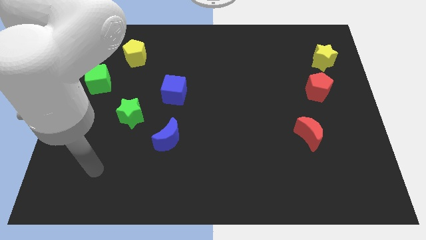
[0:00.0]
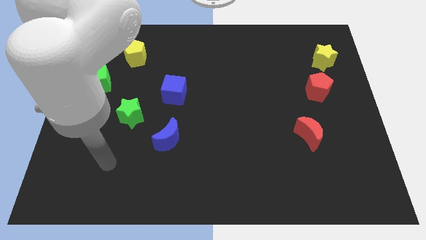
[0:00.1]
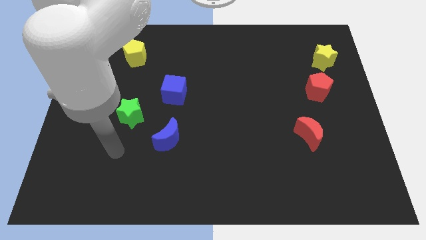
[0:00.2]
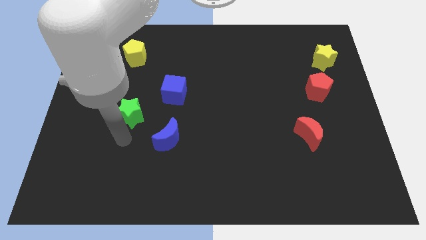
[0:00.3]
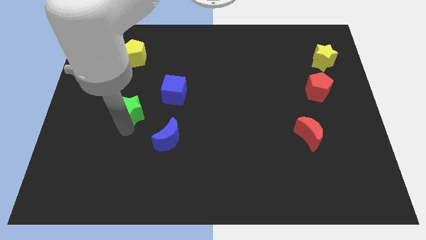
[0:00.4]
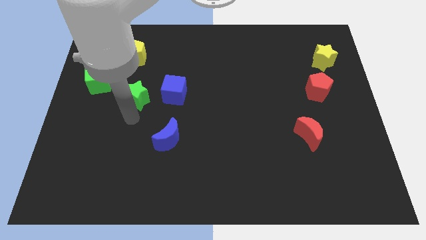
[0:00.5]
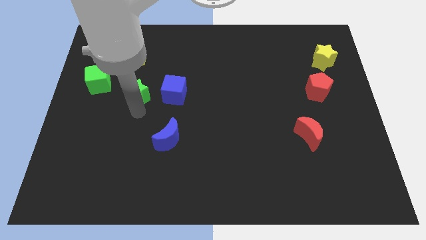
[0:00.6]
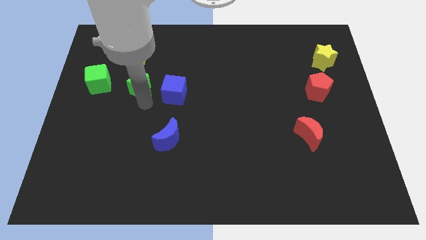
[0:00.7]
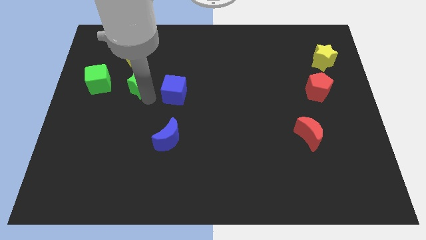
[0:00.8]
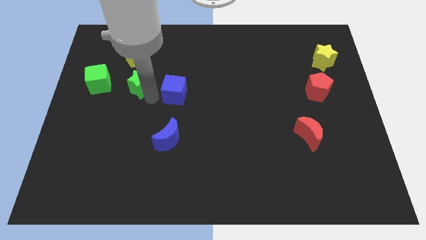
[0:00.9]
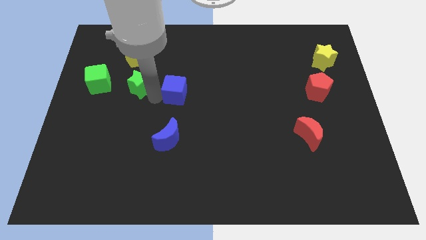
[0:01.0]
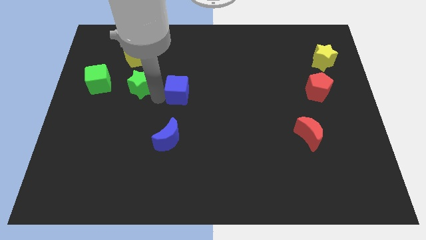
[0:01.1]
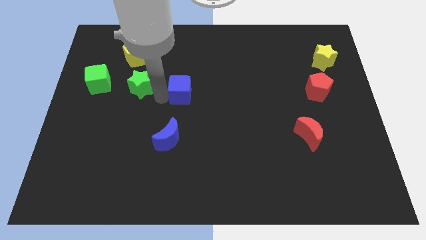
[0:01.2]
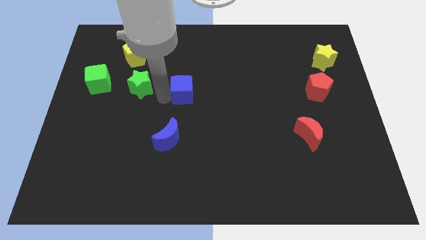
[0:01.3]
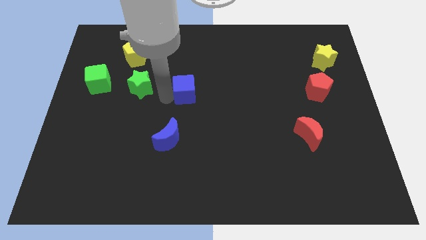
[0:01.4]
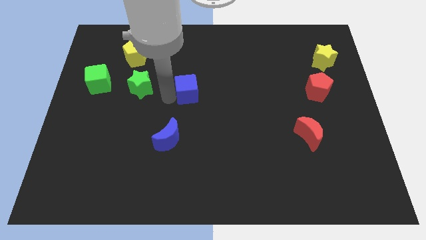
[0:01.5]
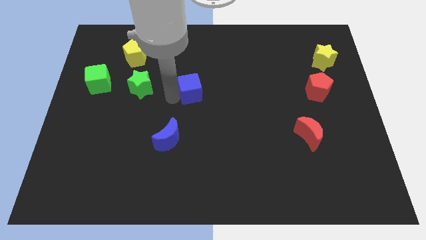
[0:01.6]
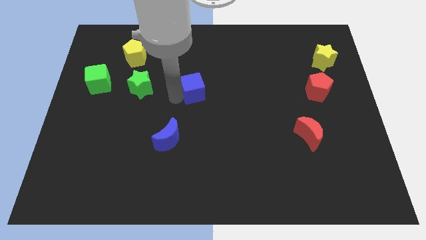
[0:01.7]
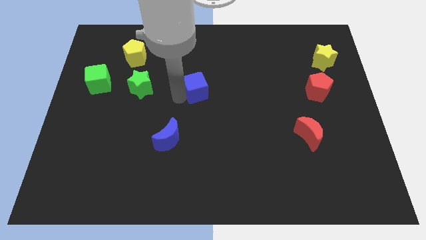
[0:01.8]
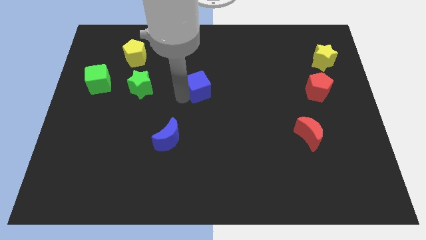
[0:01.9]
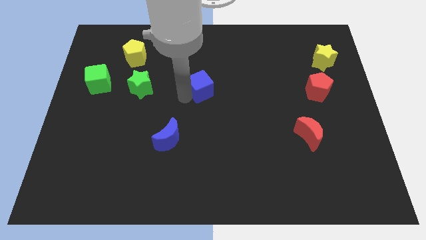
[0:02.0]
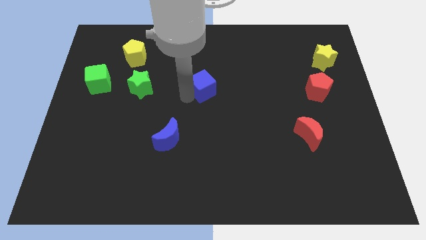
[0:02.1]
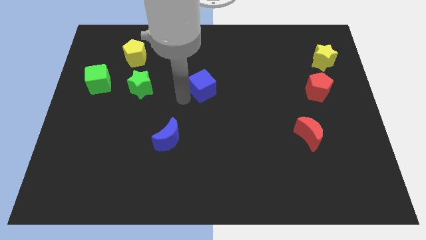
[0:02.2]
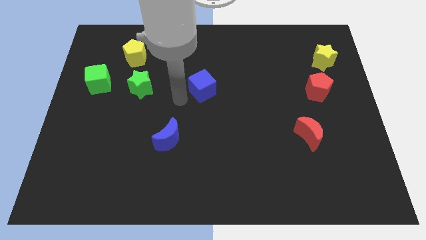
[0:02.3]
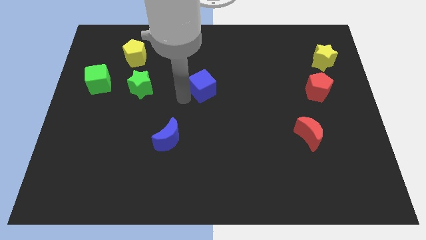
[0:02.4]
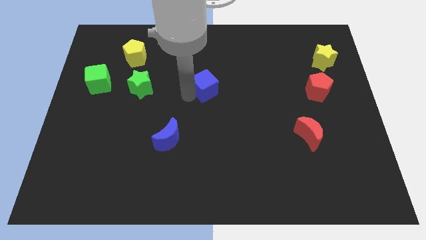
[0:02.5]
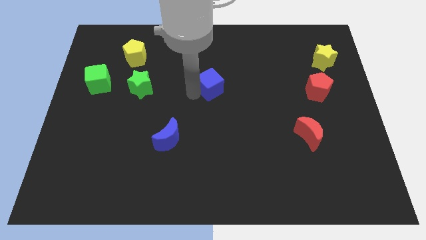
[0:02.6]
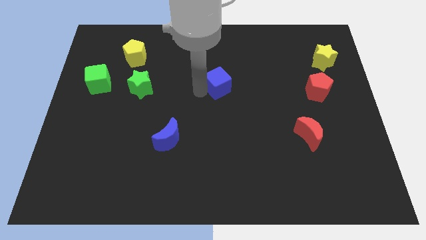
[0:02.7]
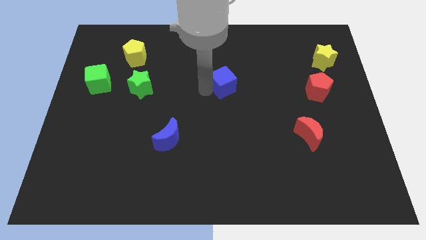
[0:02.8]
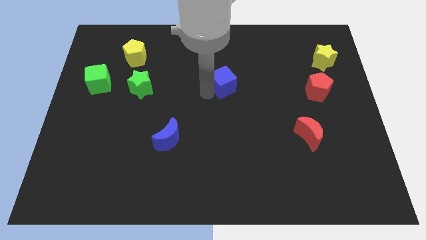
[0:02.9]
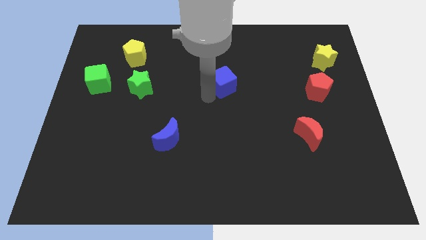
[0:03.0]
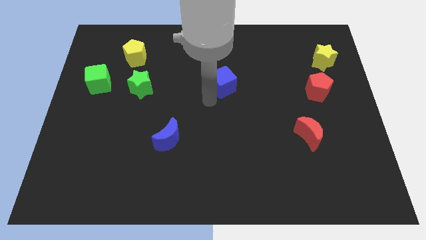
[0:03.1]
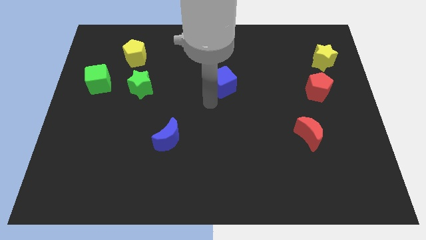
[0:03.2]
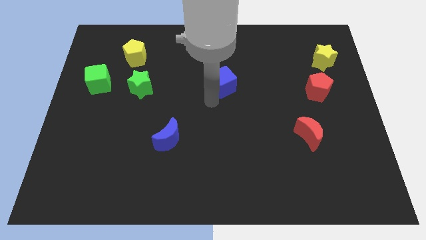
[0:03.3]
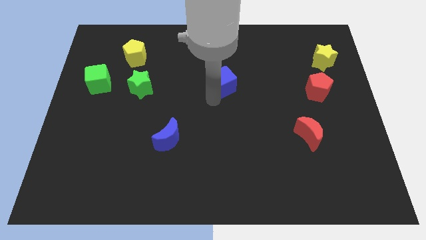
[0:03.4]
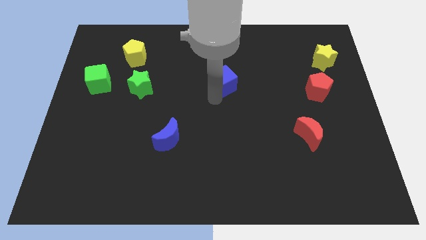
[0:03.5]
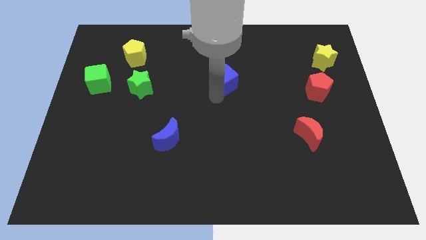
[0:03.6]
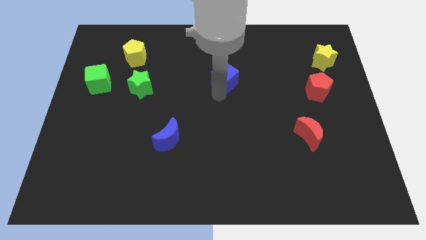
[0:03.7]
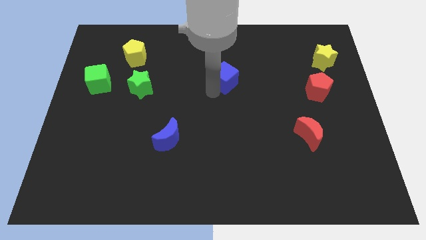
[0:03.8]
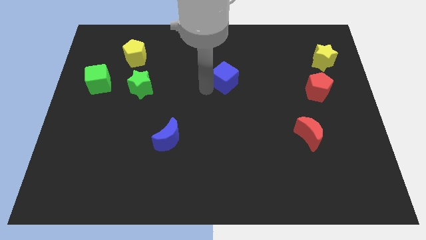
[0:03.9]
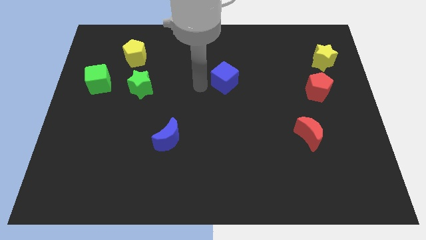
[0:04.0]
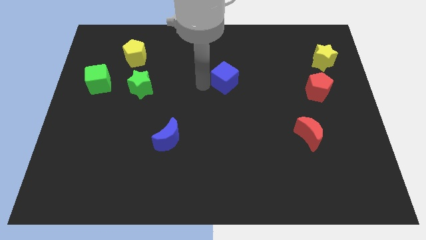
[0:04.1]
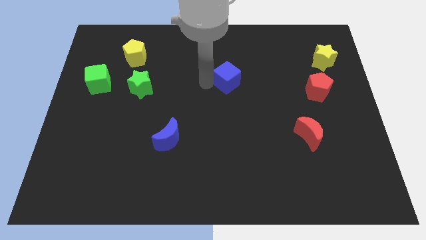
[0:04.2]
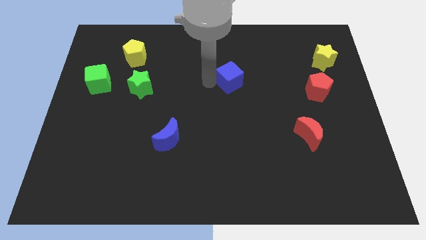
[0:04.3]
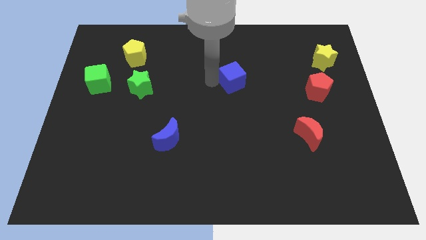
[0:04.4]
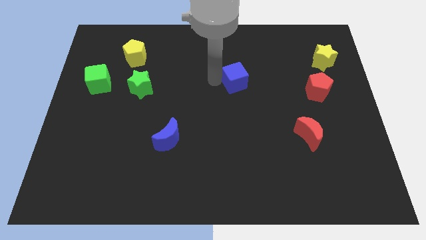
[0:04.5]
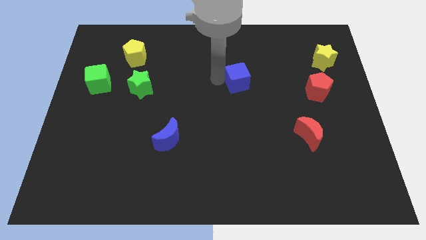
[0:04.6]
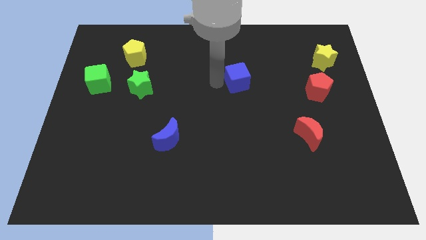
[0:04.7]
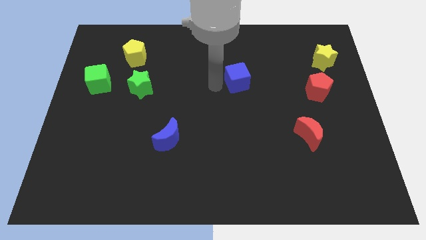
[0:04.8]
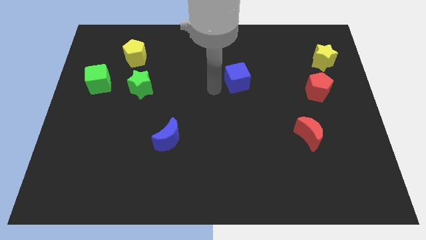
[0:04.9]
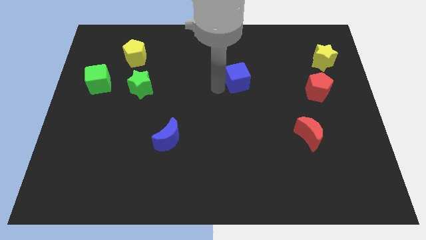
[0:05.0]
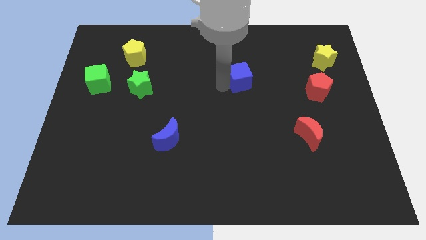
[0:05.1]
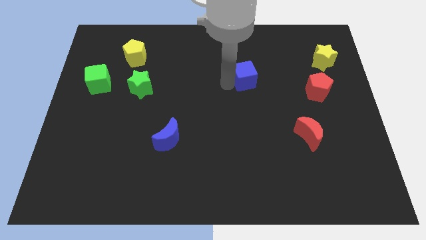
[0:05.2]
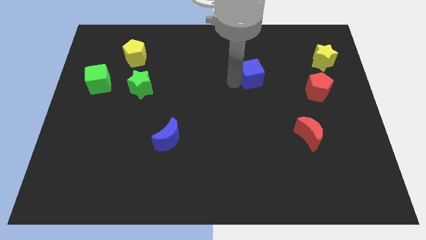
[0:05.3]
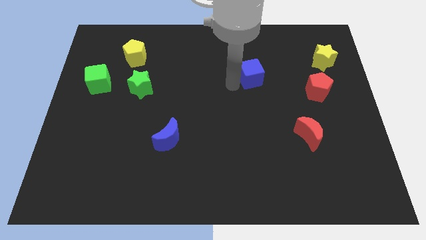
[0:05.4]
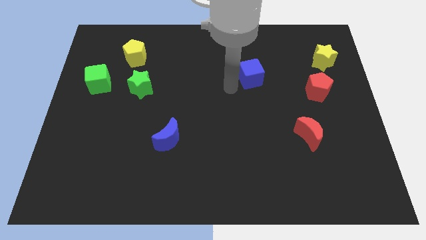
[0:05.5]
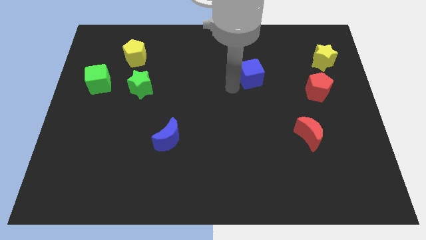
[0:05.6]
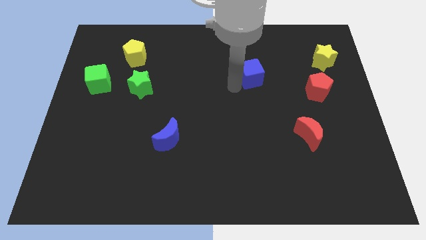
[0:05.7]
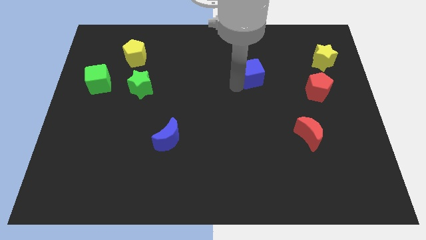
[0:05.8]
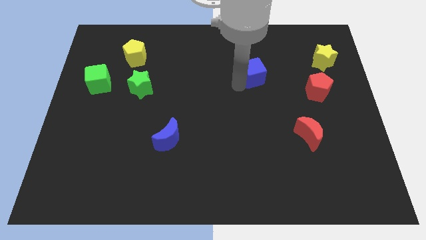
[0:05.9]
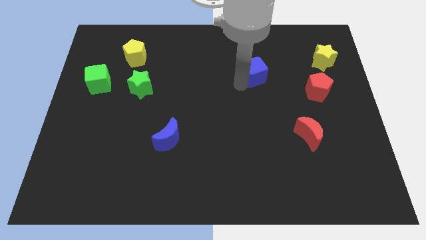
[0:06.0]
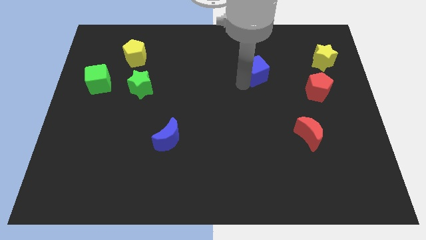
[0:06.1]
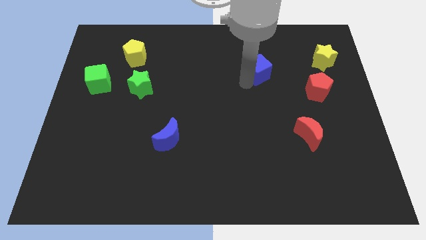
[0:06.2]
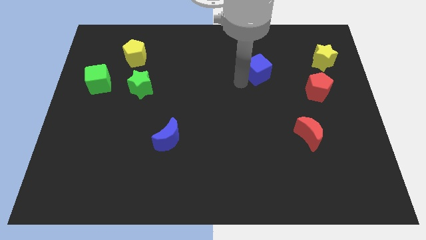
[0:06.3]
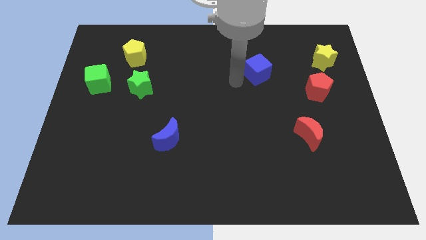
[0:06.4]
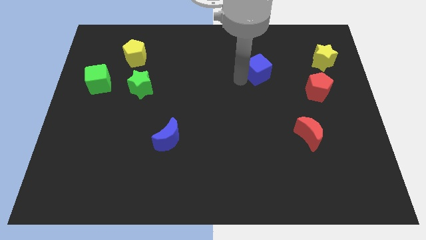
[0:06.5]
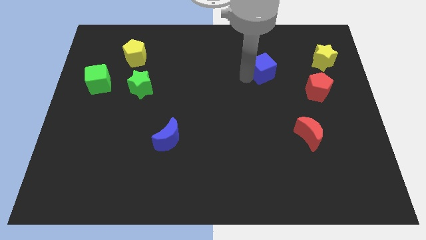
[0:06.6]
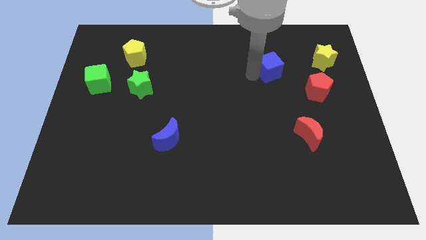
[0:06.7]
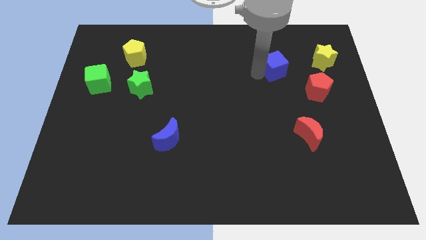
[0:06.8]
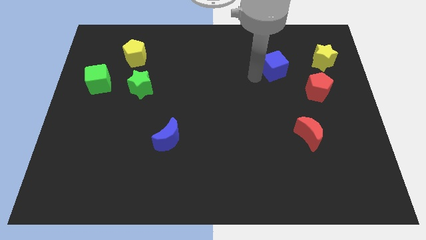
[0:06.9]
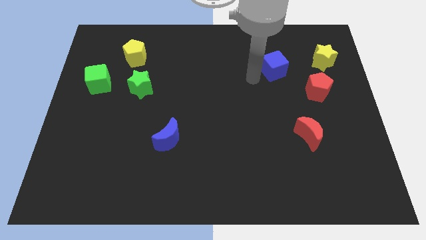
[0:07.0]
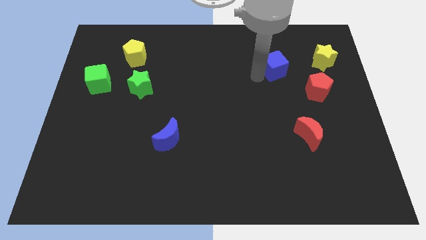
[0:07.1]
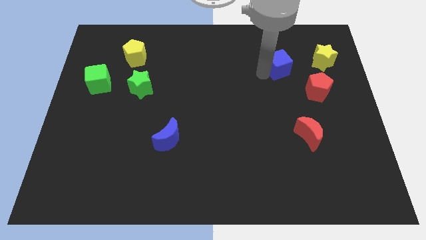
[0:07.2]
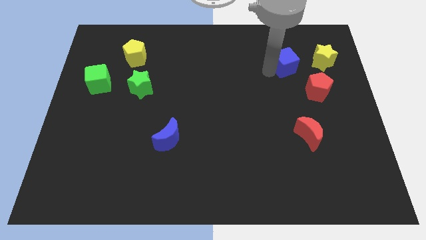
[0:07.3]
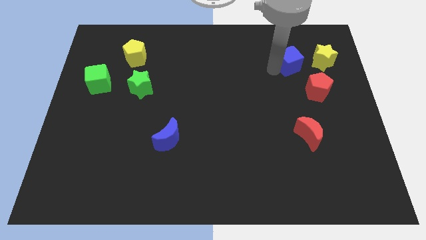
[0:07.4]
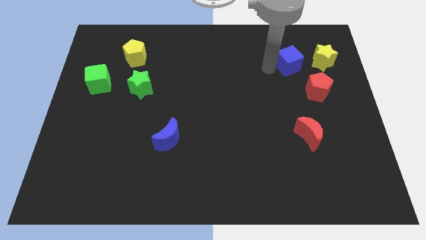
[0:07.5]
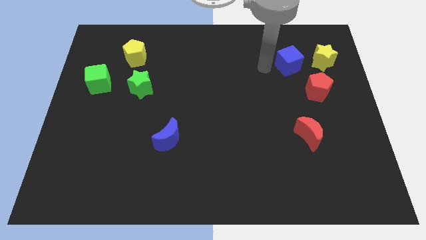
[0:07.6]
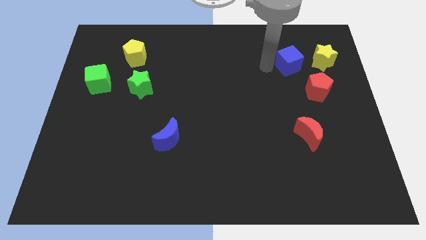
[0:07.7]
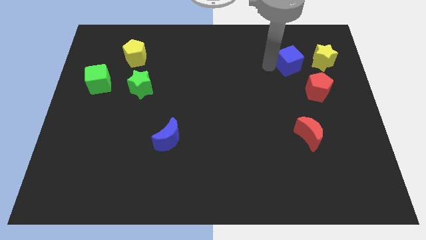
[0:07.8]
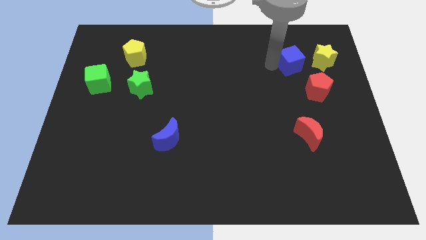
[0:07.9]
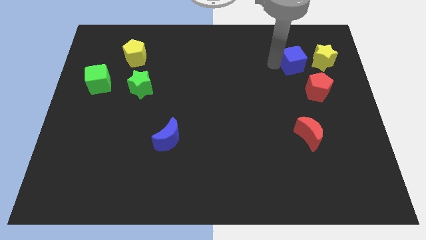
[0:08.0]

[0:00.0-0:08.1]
slide the blue cube above the red pentagon
